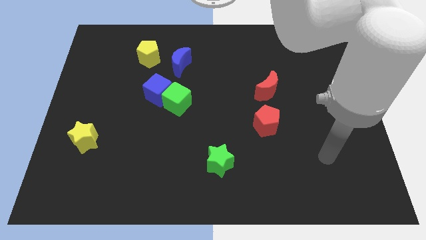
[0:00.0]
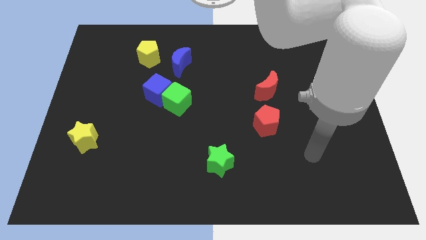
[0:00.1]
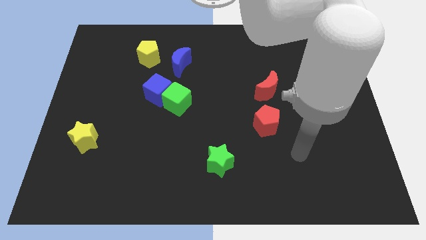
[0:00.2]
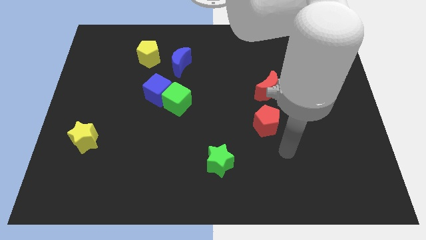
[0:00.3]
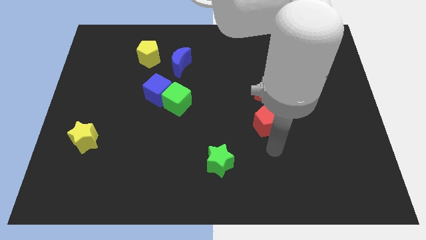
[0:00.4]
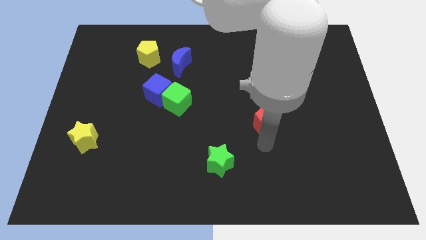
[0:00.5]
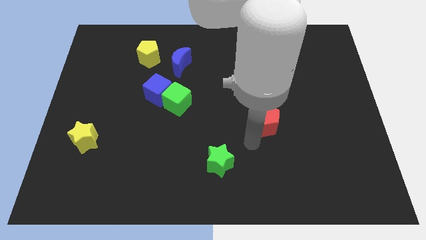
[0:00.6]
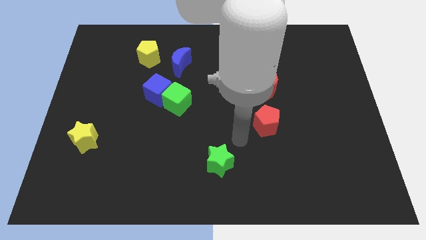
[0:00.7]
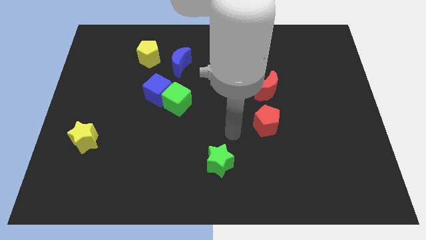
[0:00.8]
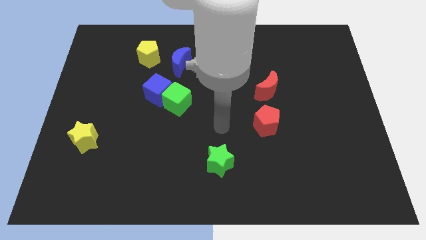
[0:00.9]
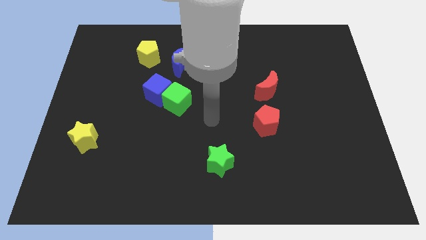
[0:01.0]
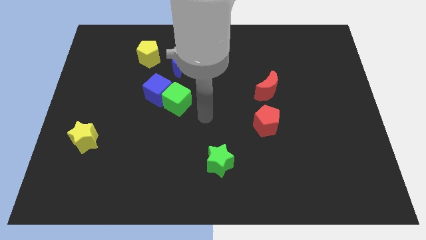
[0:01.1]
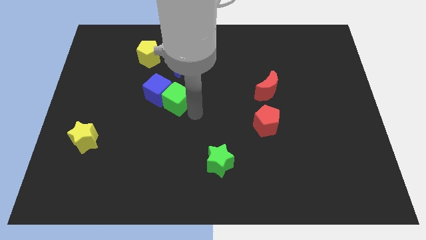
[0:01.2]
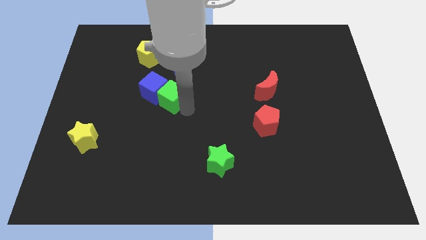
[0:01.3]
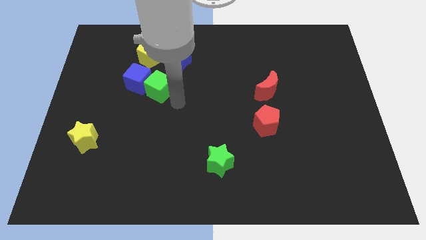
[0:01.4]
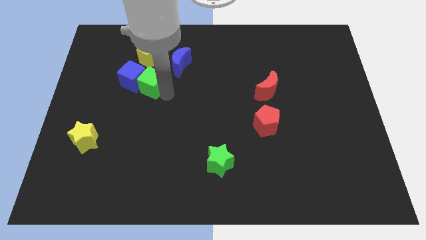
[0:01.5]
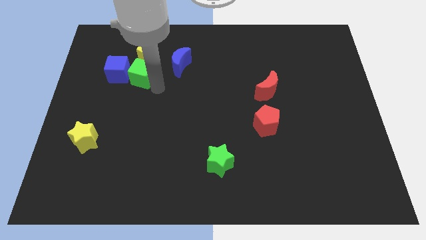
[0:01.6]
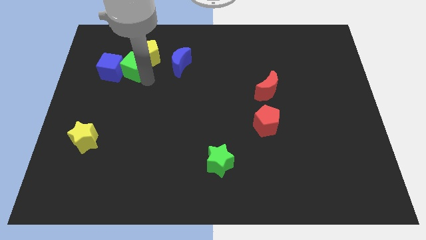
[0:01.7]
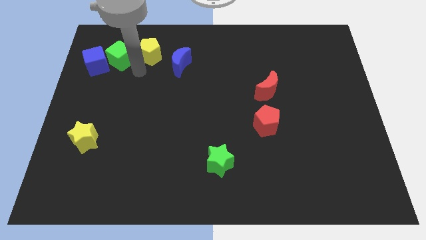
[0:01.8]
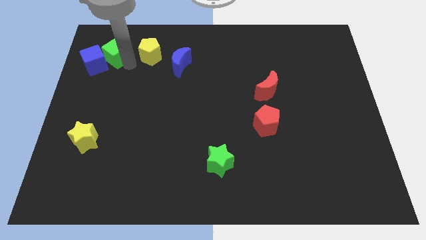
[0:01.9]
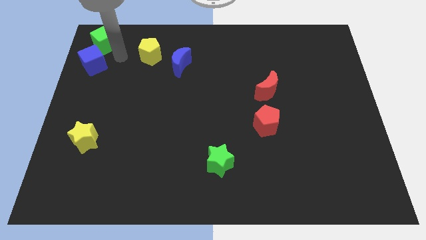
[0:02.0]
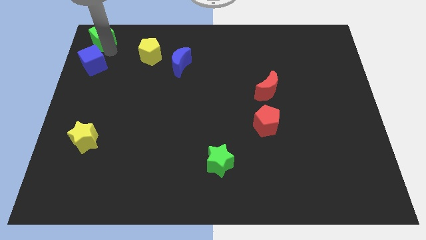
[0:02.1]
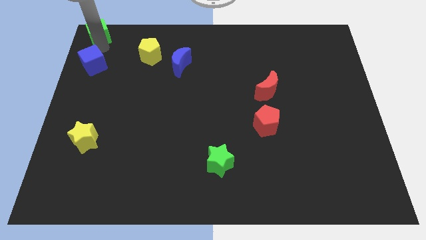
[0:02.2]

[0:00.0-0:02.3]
separate the blue cube from the green cube

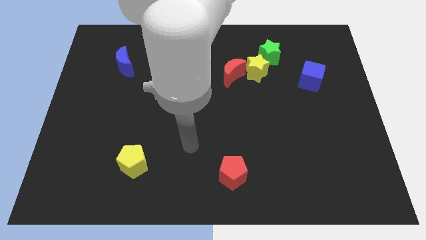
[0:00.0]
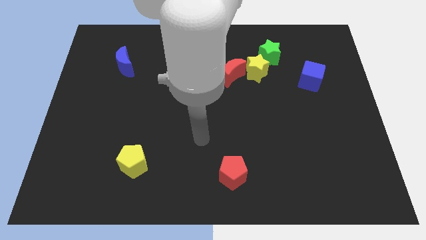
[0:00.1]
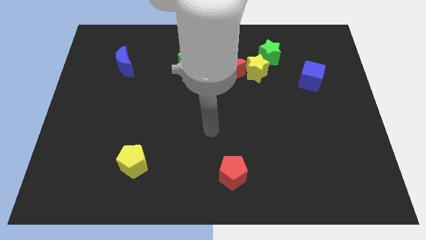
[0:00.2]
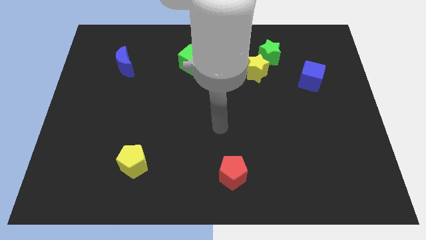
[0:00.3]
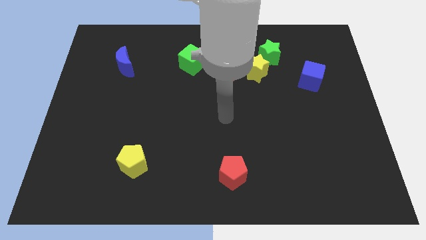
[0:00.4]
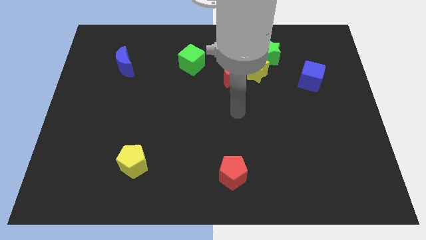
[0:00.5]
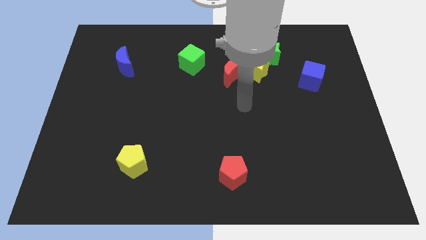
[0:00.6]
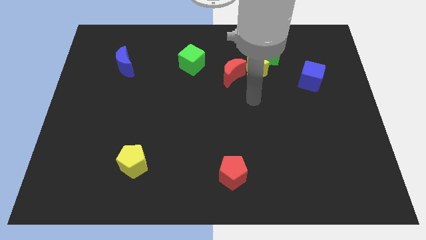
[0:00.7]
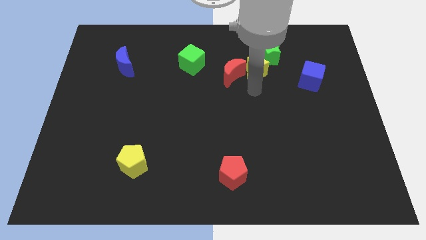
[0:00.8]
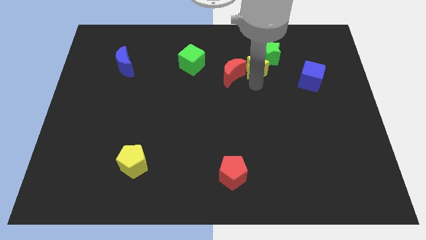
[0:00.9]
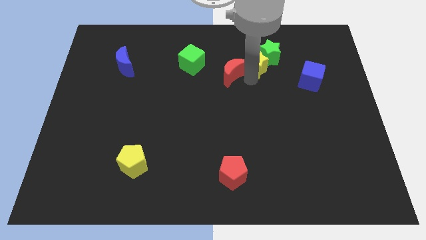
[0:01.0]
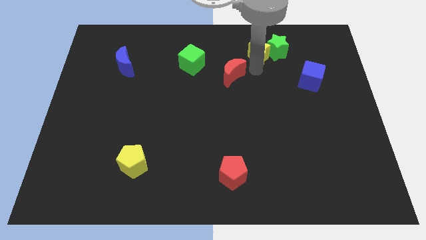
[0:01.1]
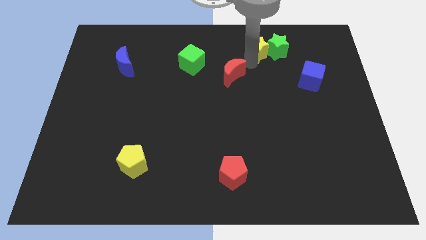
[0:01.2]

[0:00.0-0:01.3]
pull the red moon apart from the yellow star

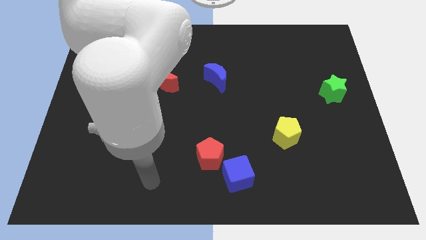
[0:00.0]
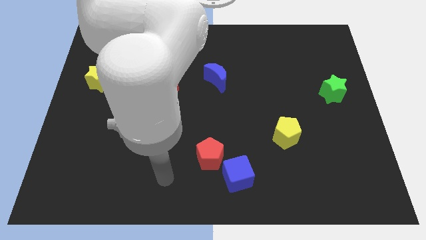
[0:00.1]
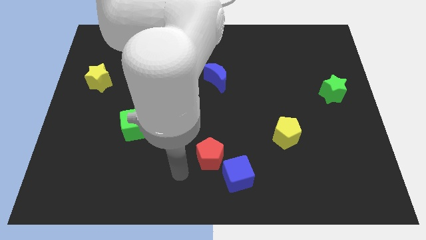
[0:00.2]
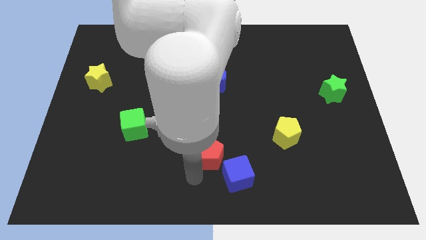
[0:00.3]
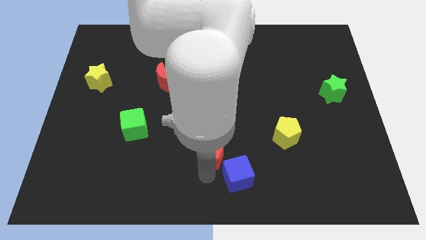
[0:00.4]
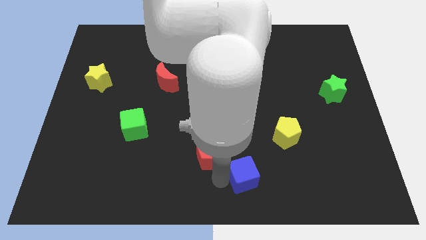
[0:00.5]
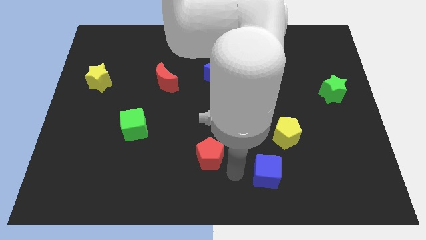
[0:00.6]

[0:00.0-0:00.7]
move the red pentagon away from the blue cube

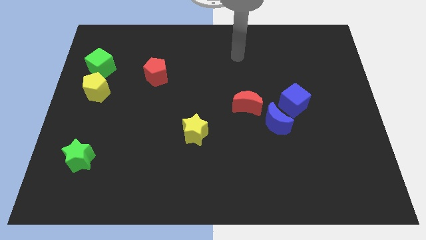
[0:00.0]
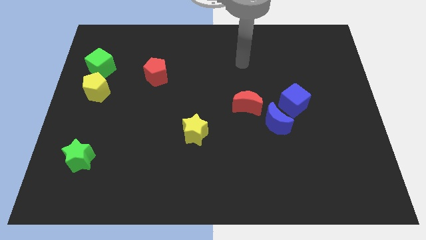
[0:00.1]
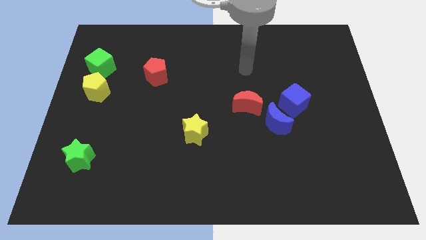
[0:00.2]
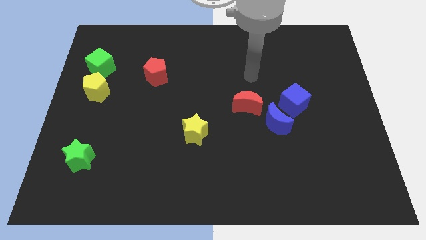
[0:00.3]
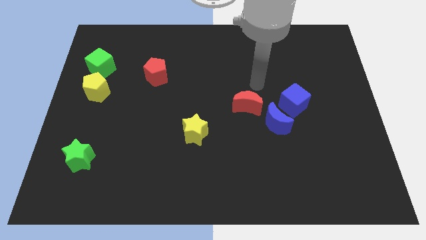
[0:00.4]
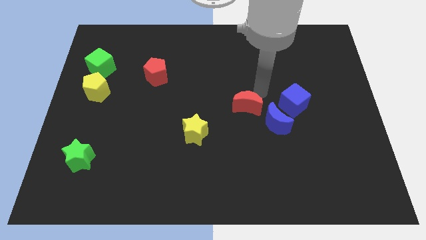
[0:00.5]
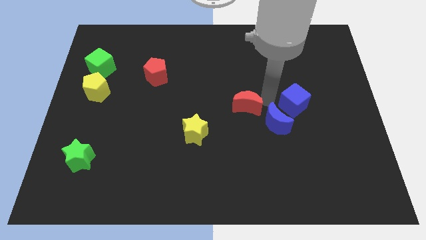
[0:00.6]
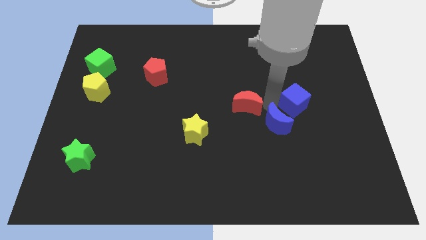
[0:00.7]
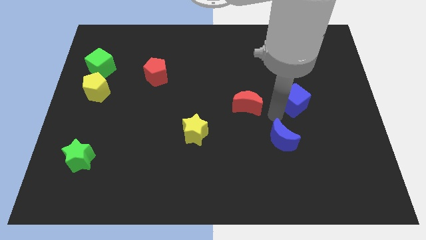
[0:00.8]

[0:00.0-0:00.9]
pull the blue cube apart from the blue moon

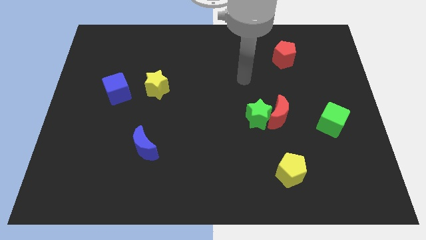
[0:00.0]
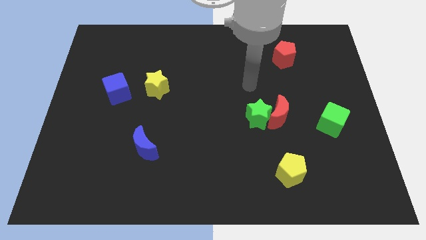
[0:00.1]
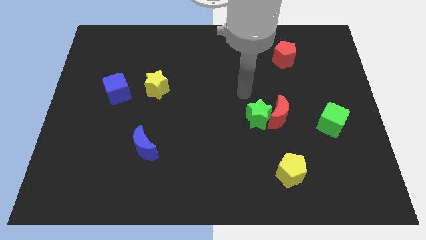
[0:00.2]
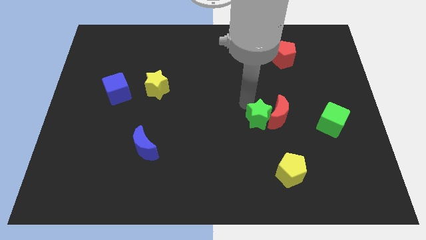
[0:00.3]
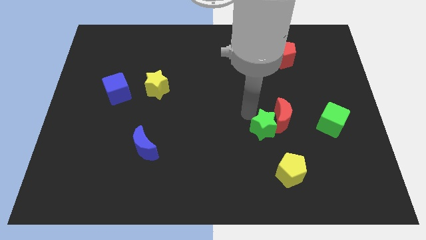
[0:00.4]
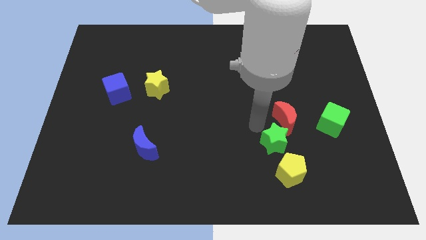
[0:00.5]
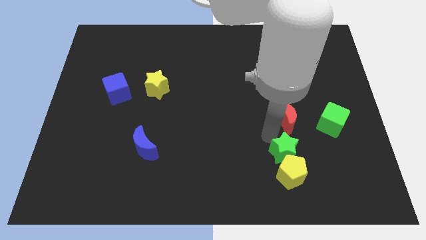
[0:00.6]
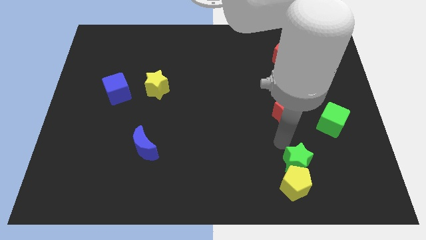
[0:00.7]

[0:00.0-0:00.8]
pull the red moon apart from the green star

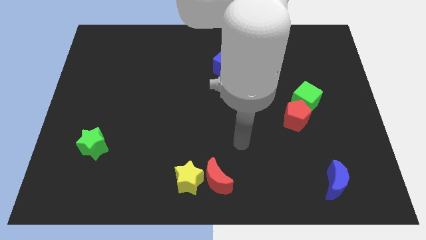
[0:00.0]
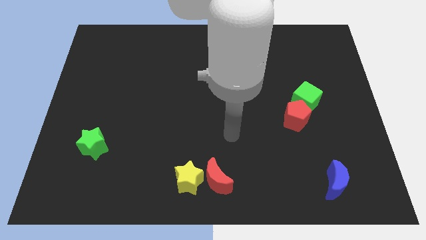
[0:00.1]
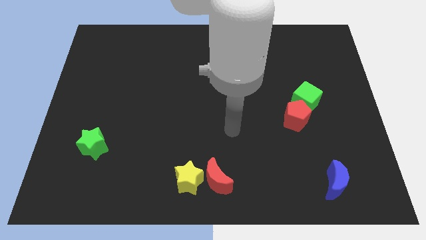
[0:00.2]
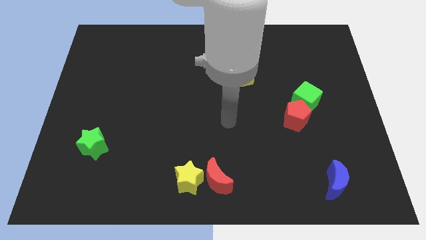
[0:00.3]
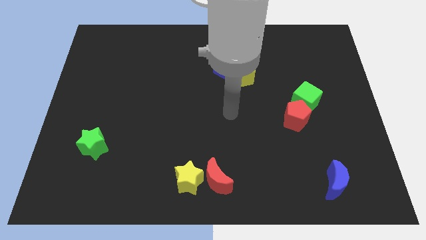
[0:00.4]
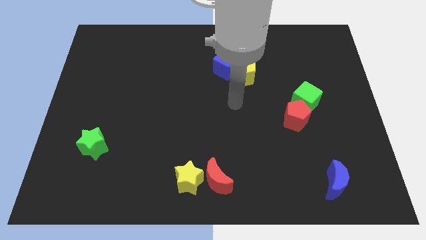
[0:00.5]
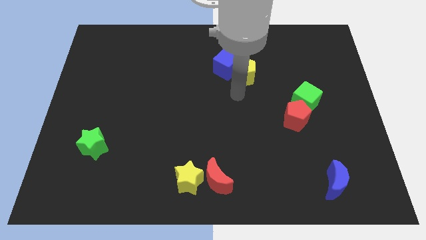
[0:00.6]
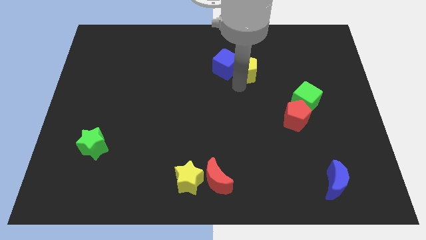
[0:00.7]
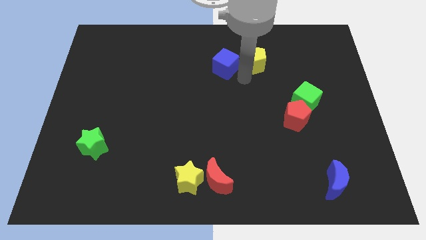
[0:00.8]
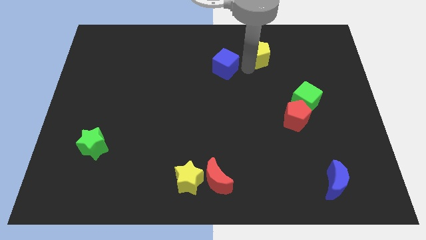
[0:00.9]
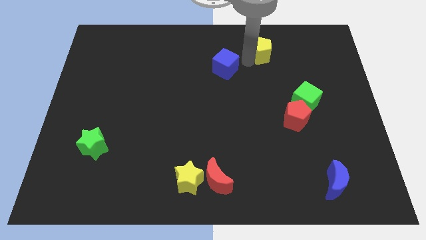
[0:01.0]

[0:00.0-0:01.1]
move the blue cube away from the yellow pentagon

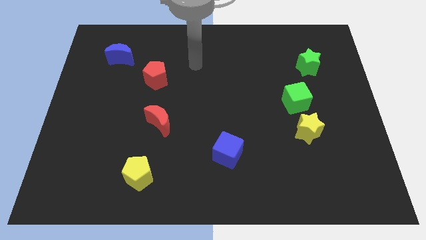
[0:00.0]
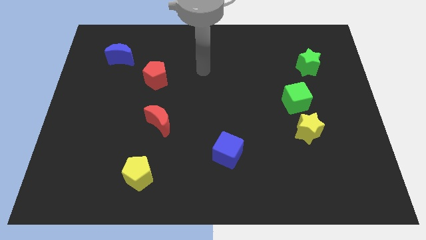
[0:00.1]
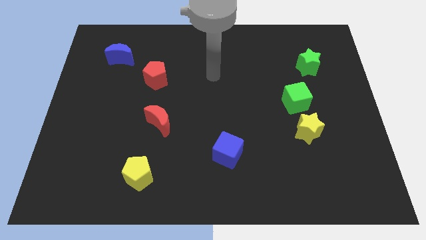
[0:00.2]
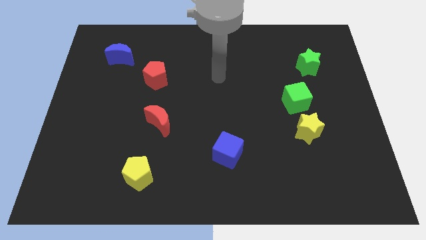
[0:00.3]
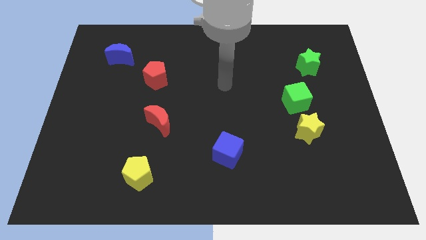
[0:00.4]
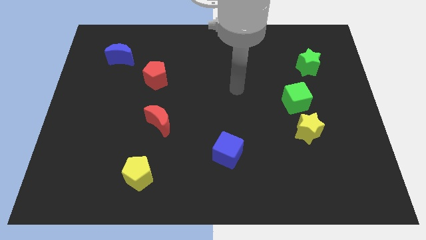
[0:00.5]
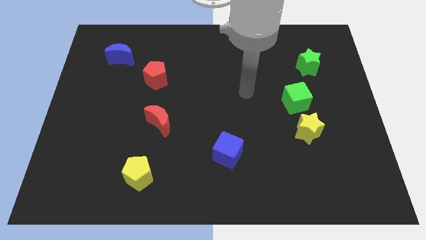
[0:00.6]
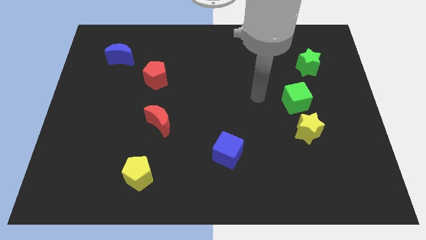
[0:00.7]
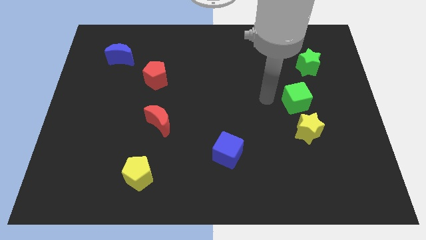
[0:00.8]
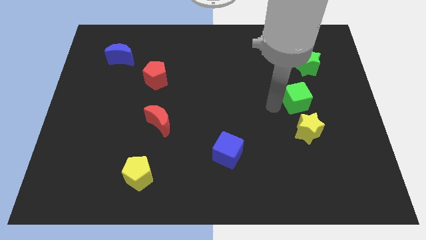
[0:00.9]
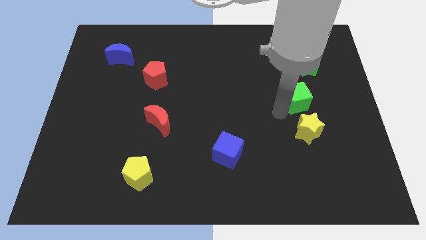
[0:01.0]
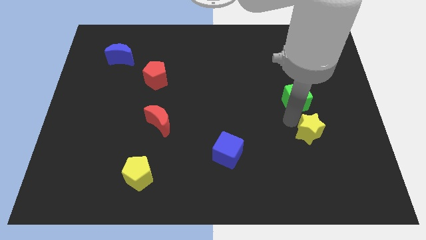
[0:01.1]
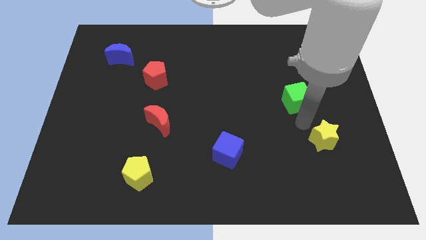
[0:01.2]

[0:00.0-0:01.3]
move the green cube away from the yellow star

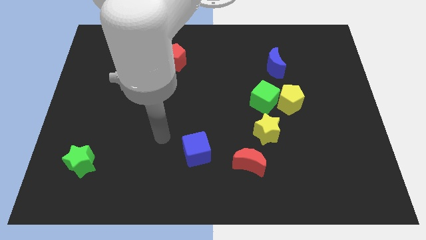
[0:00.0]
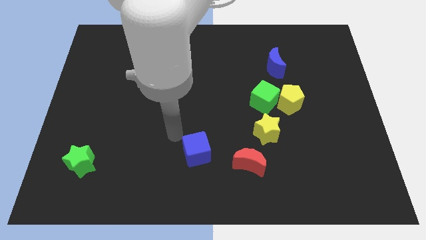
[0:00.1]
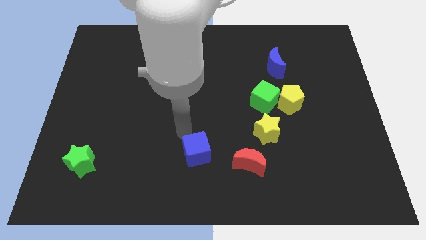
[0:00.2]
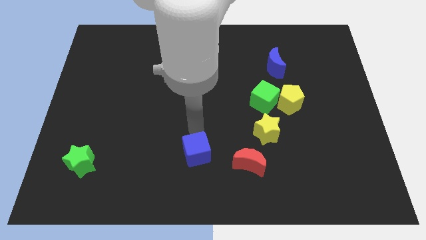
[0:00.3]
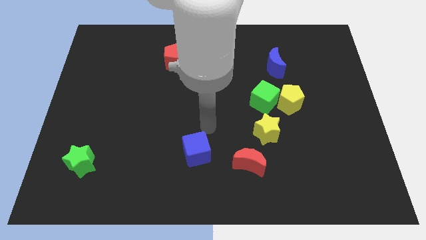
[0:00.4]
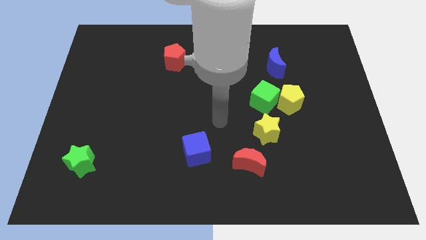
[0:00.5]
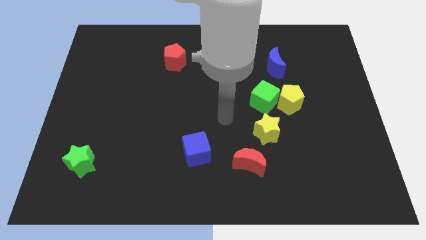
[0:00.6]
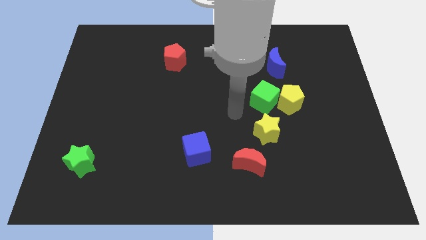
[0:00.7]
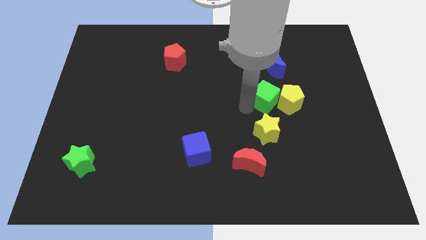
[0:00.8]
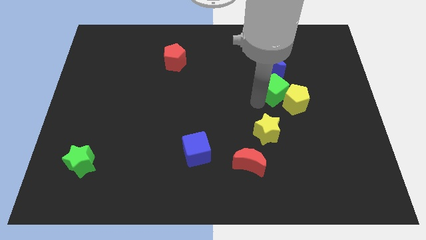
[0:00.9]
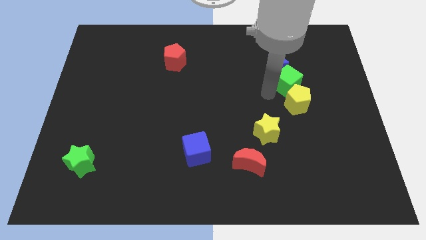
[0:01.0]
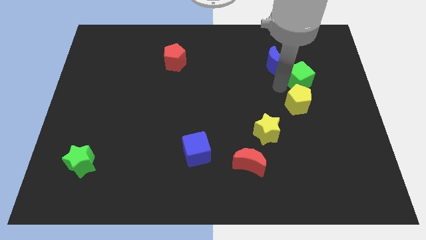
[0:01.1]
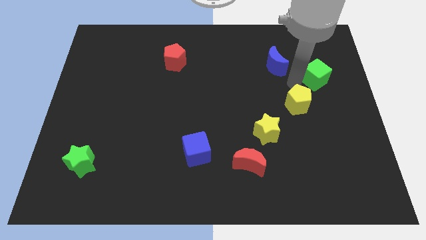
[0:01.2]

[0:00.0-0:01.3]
pull the yellow pentagon apart from the green cube
